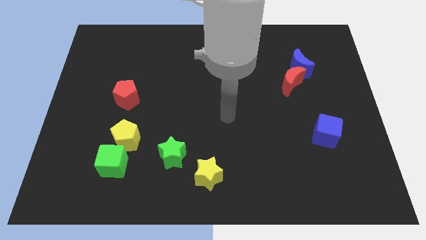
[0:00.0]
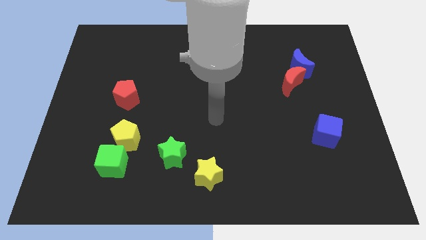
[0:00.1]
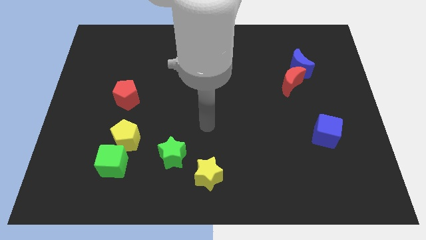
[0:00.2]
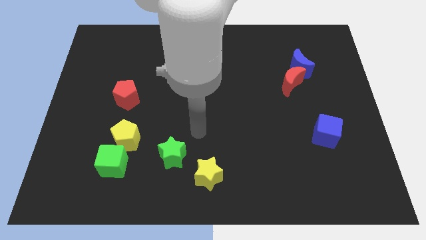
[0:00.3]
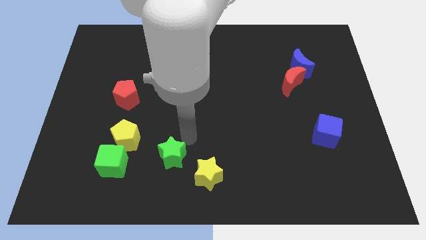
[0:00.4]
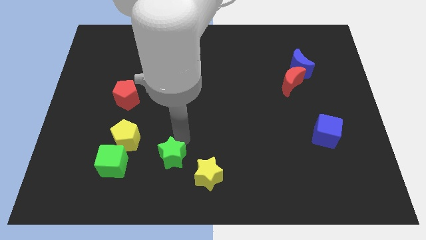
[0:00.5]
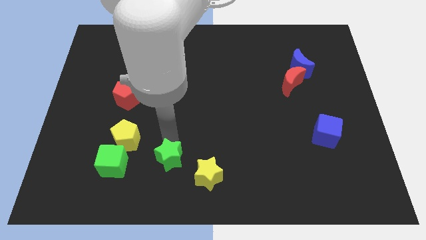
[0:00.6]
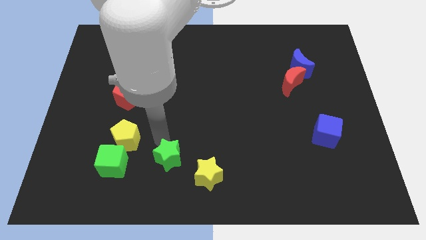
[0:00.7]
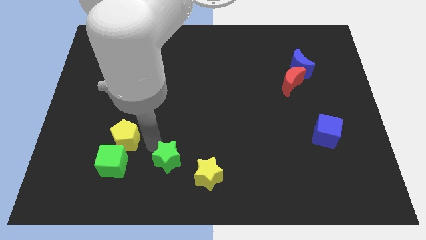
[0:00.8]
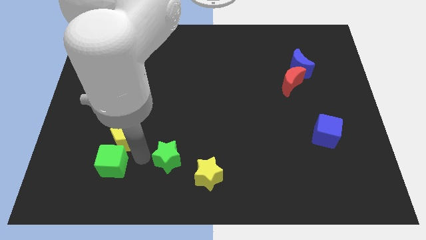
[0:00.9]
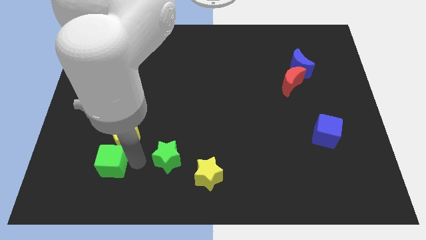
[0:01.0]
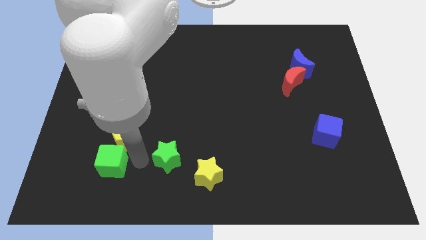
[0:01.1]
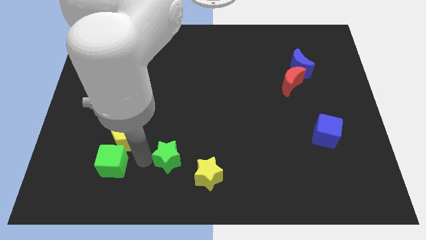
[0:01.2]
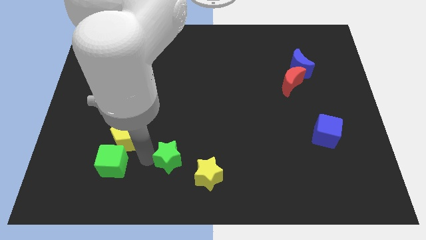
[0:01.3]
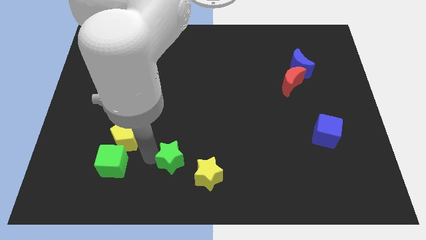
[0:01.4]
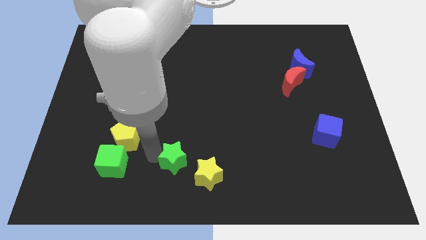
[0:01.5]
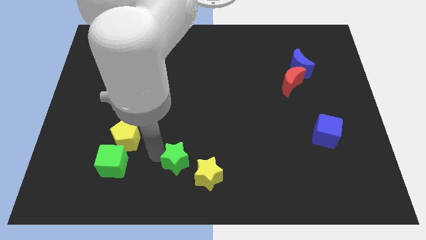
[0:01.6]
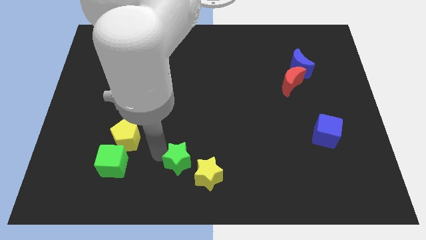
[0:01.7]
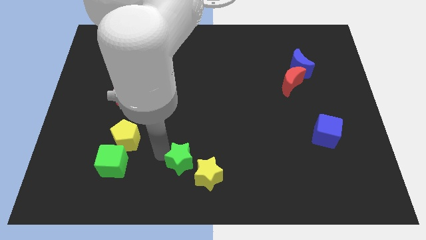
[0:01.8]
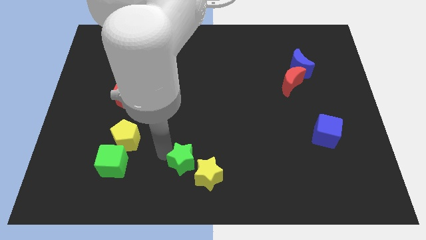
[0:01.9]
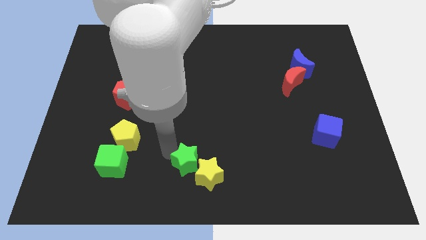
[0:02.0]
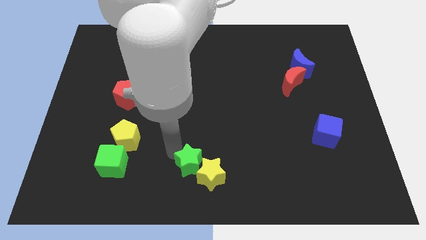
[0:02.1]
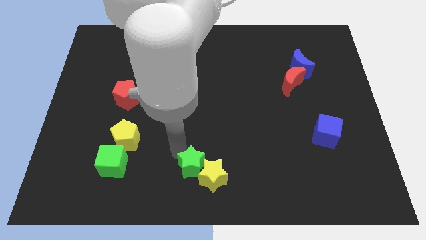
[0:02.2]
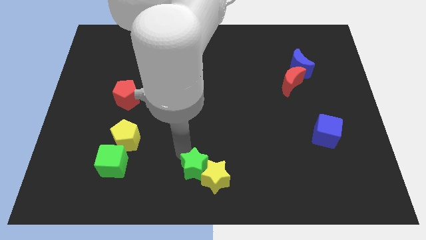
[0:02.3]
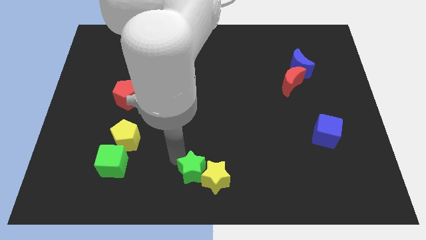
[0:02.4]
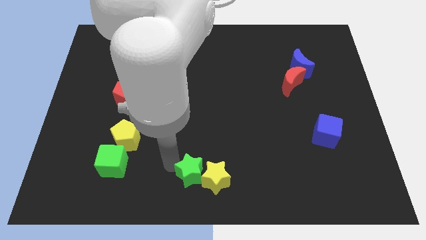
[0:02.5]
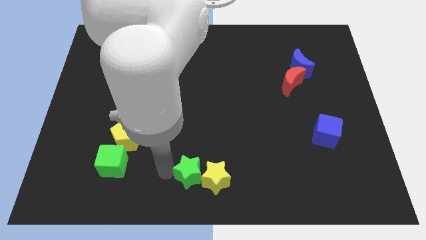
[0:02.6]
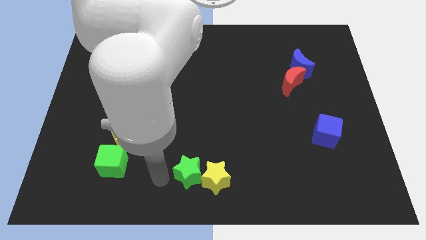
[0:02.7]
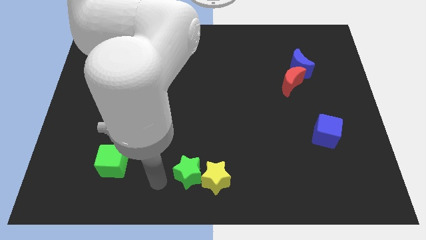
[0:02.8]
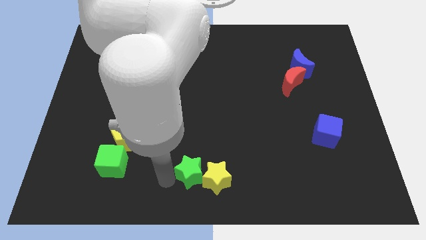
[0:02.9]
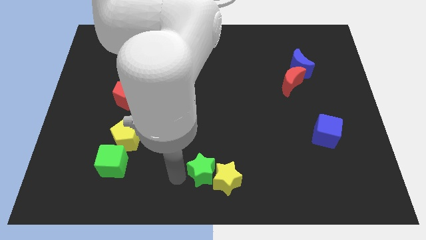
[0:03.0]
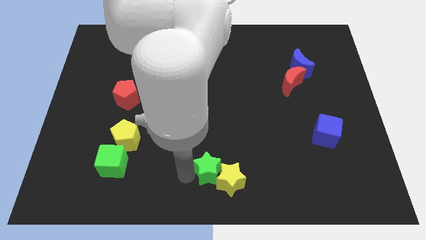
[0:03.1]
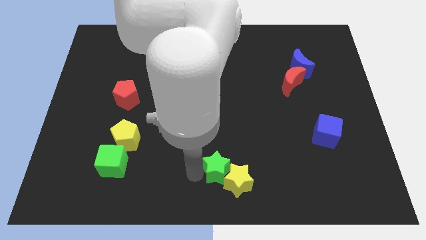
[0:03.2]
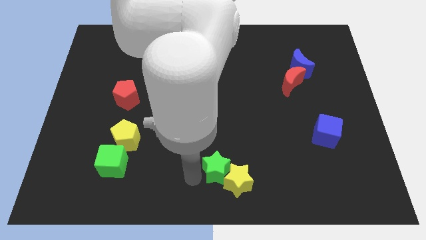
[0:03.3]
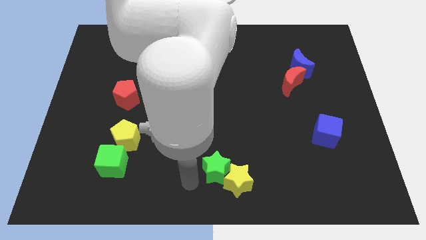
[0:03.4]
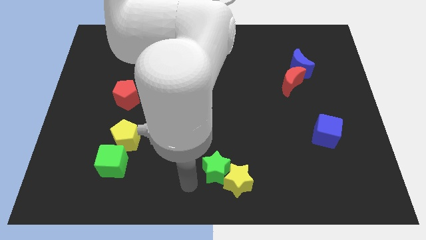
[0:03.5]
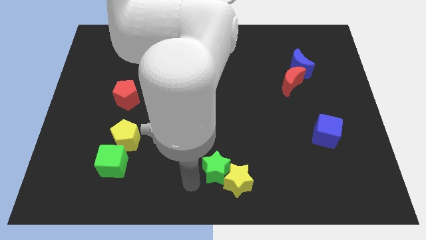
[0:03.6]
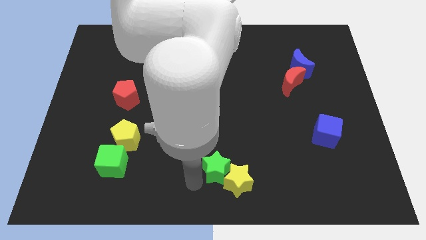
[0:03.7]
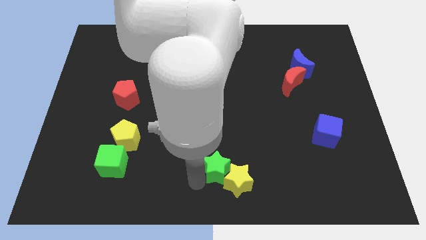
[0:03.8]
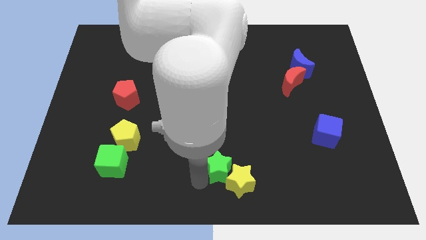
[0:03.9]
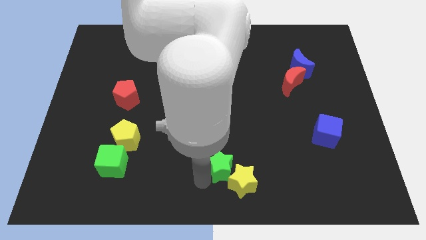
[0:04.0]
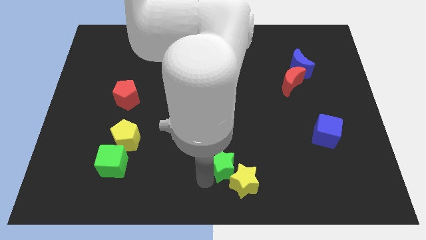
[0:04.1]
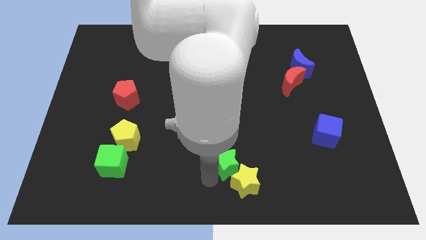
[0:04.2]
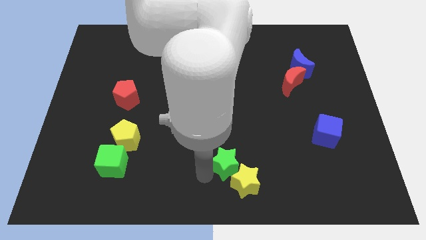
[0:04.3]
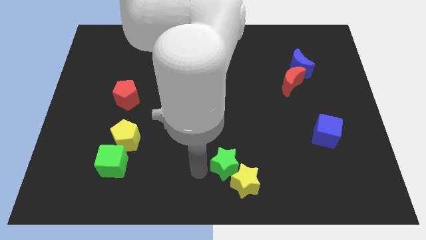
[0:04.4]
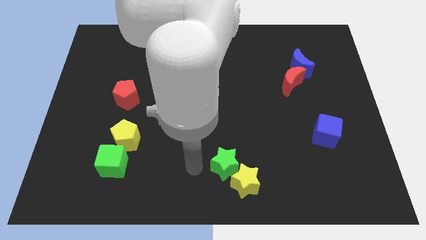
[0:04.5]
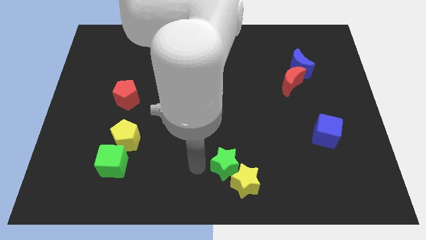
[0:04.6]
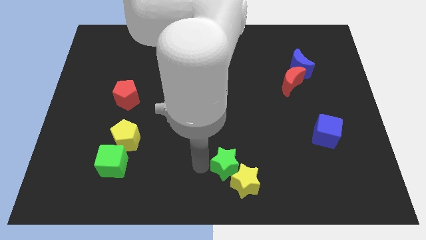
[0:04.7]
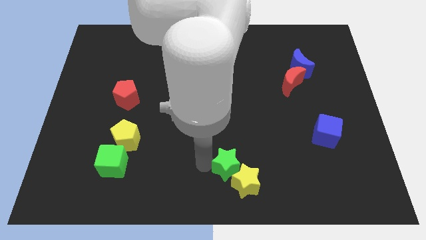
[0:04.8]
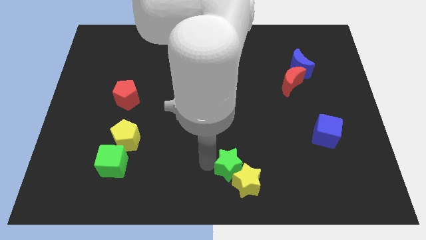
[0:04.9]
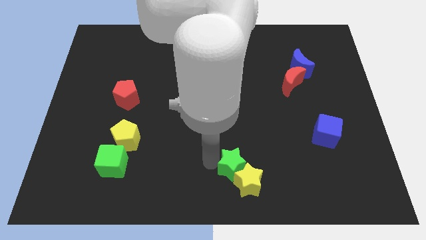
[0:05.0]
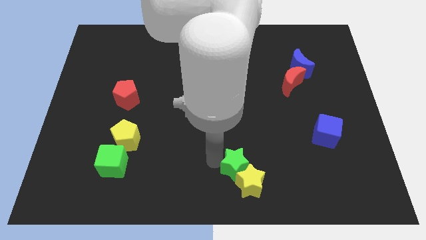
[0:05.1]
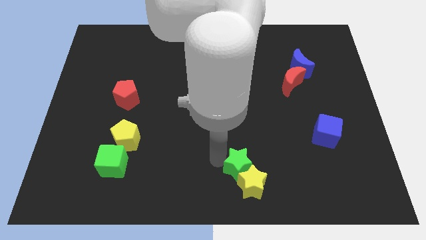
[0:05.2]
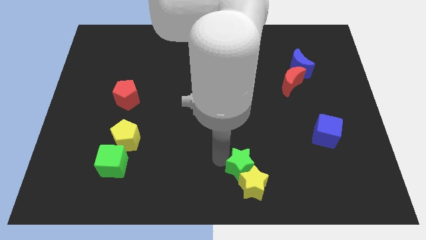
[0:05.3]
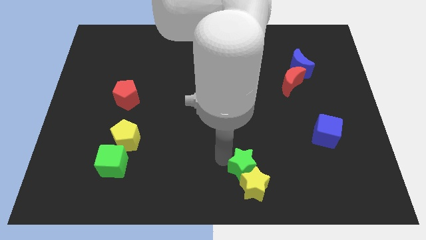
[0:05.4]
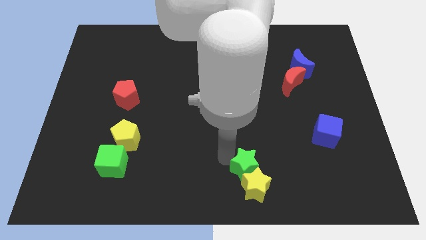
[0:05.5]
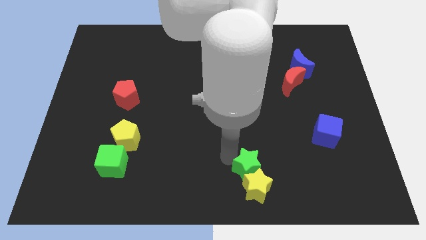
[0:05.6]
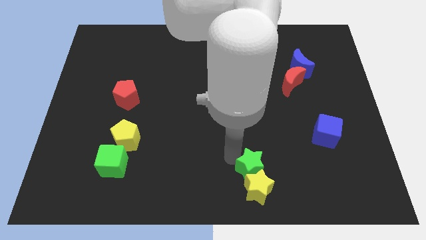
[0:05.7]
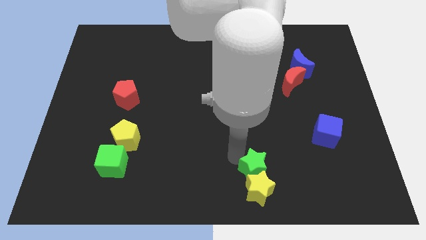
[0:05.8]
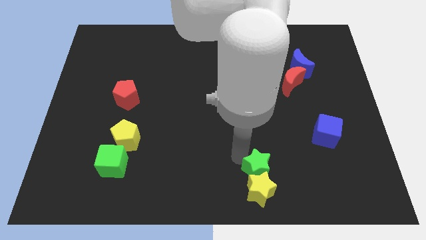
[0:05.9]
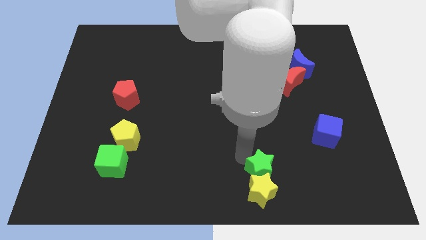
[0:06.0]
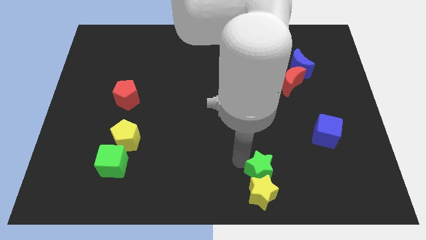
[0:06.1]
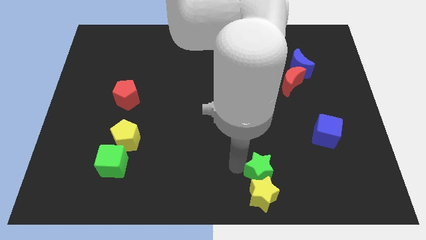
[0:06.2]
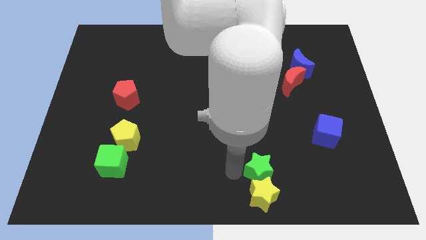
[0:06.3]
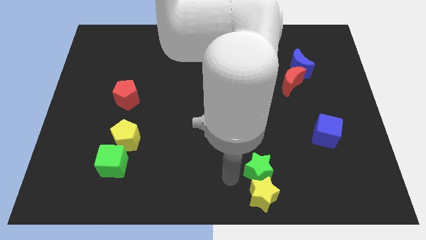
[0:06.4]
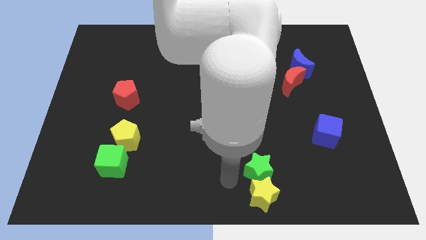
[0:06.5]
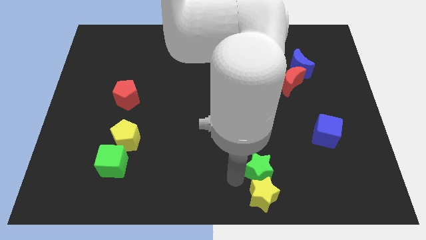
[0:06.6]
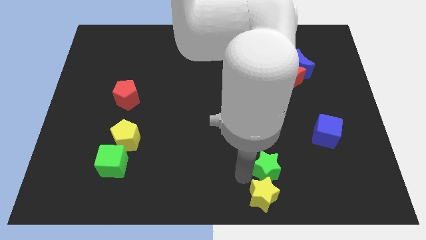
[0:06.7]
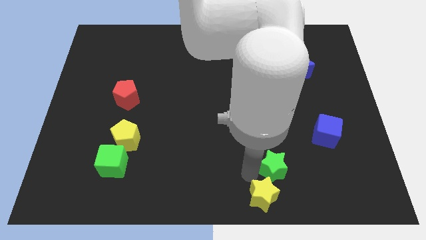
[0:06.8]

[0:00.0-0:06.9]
move the green star right

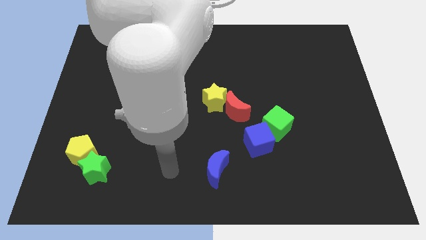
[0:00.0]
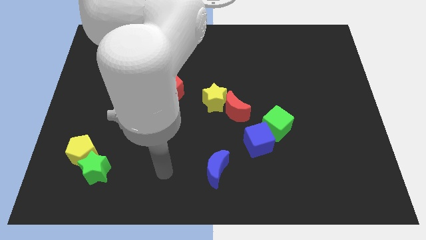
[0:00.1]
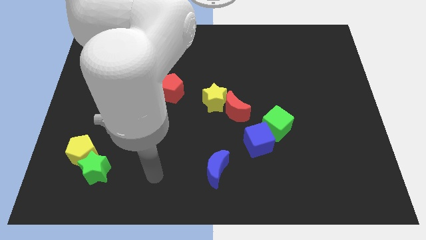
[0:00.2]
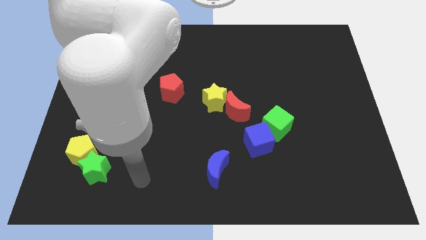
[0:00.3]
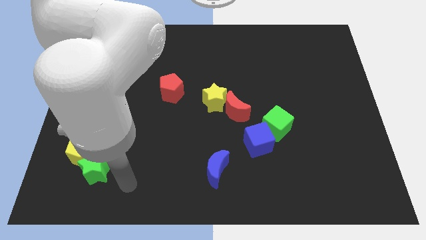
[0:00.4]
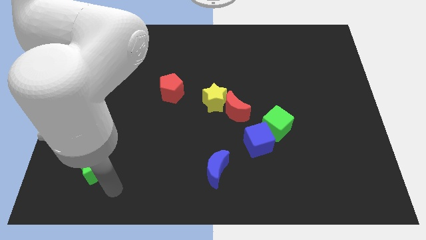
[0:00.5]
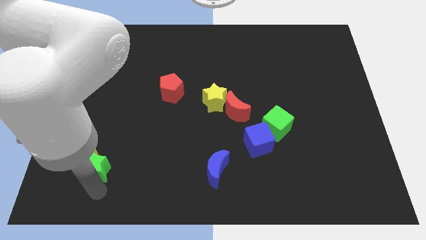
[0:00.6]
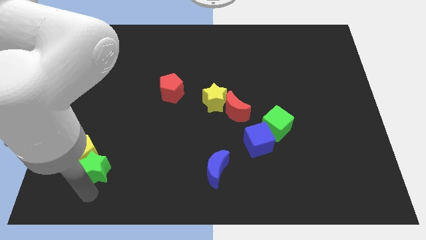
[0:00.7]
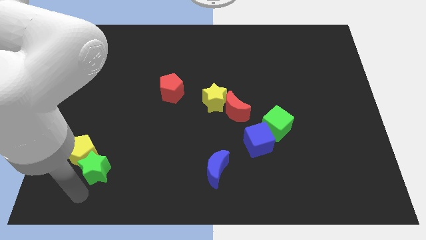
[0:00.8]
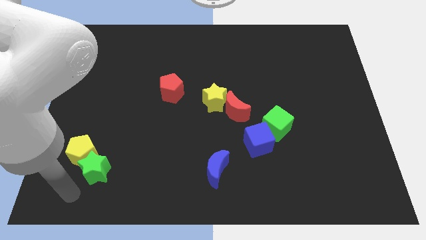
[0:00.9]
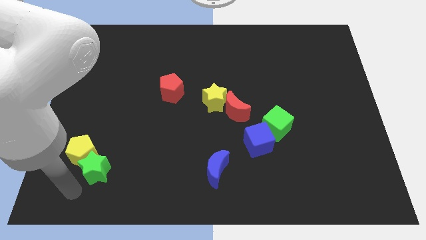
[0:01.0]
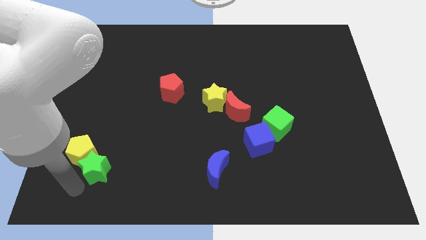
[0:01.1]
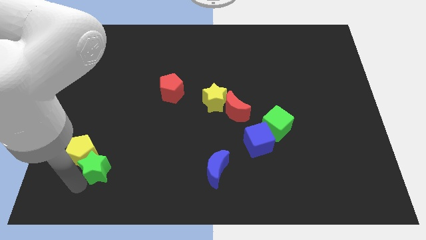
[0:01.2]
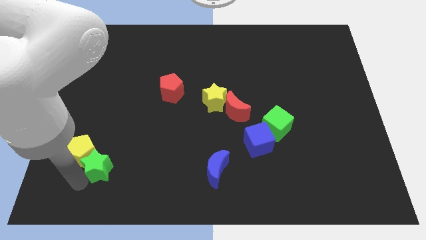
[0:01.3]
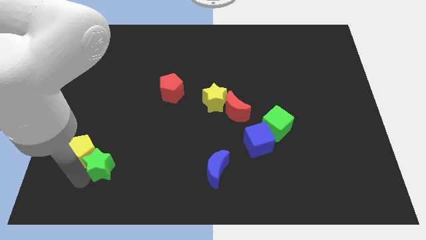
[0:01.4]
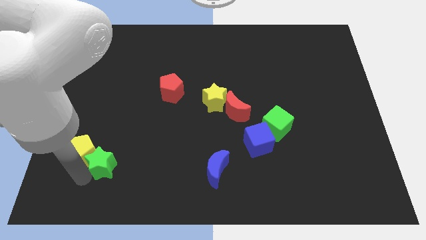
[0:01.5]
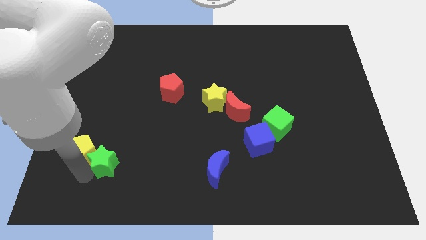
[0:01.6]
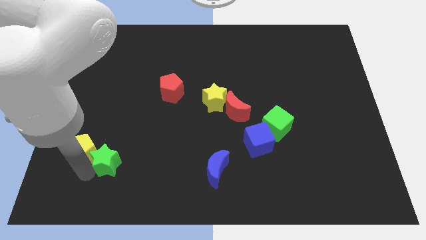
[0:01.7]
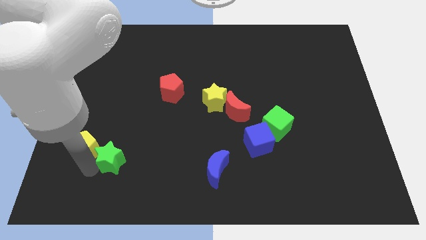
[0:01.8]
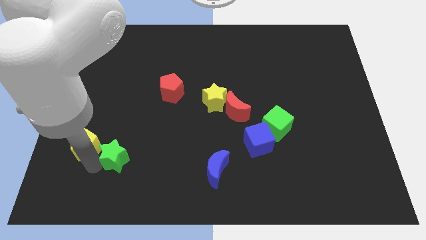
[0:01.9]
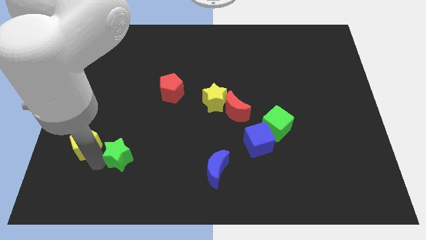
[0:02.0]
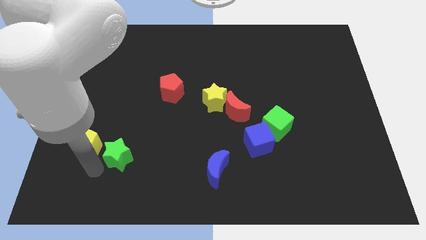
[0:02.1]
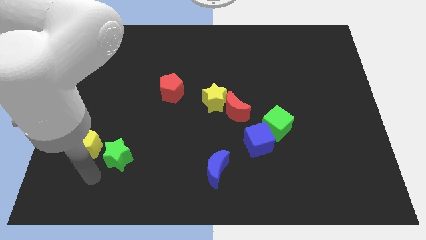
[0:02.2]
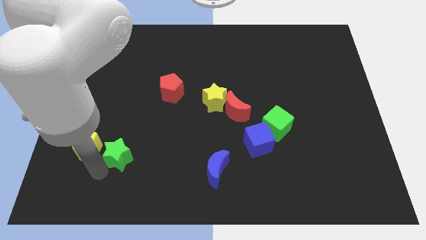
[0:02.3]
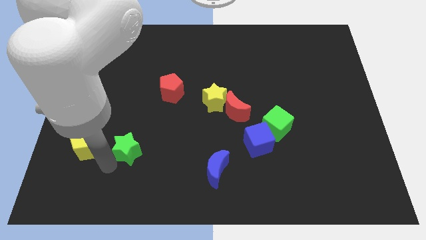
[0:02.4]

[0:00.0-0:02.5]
slide the green star up and right a little bit
